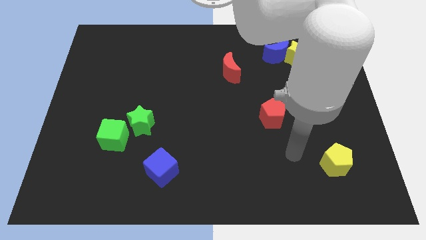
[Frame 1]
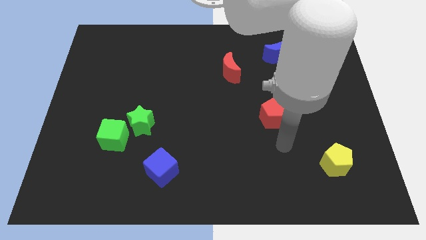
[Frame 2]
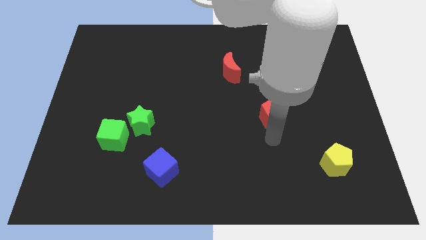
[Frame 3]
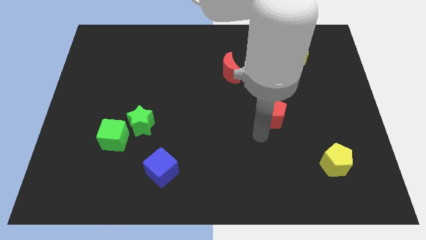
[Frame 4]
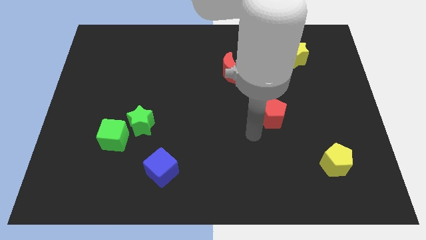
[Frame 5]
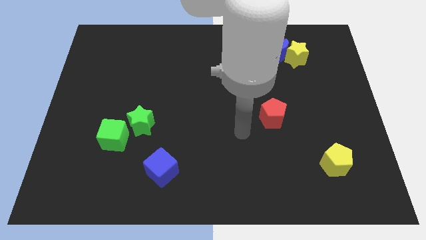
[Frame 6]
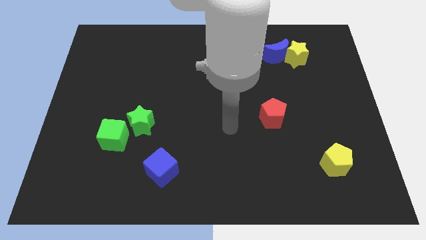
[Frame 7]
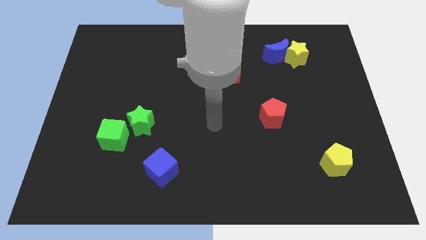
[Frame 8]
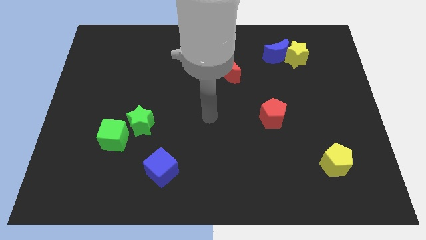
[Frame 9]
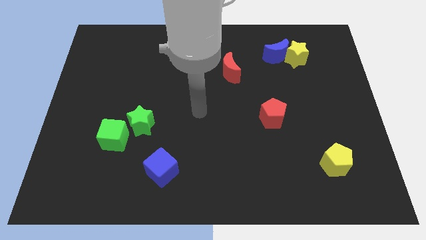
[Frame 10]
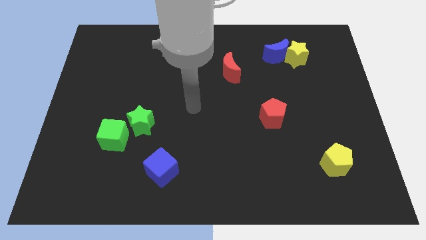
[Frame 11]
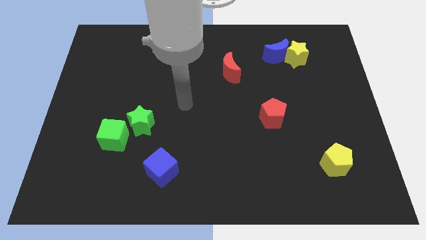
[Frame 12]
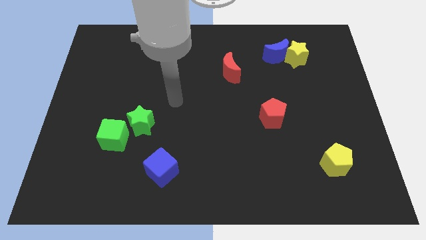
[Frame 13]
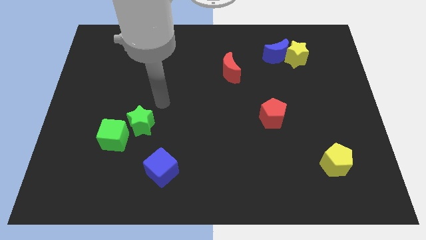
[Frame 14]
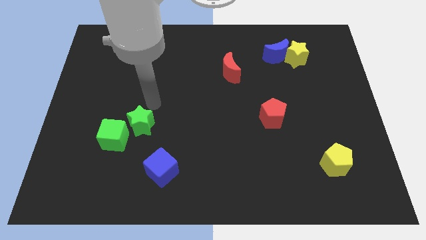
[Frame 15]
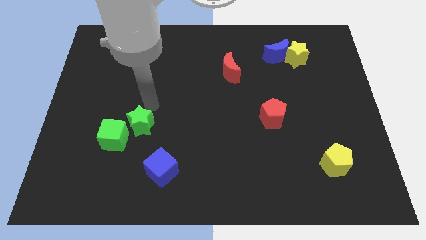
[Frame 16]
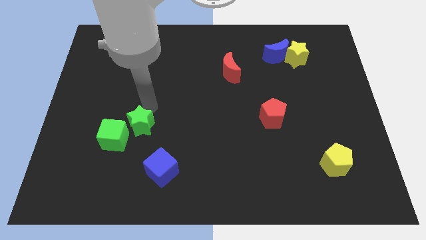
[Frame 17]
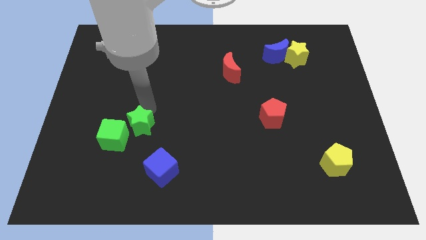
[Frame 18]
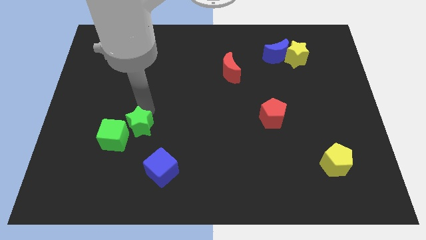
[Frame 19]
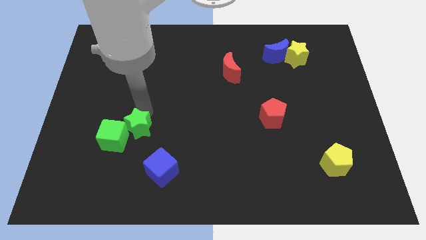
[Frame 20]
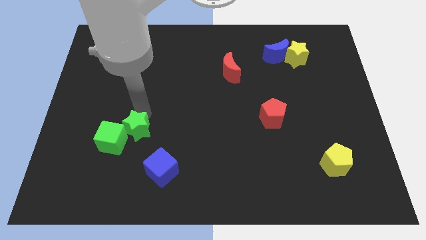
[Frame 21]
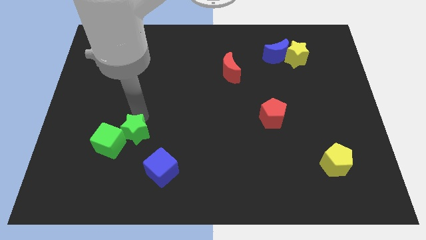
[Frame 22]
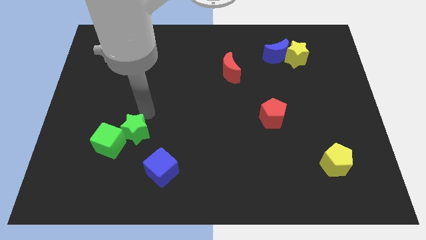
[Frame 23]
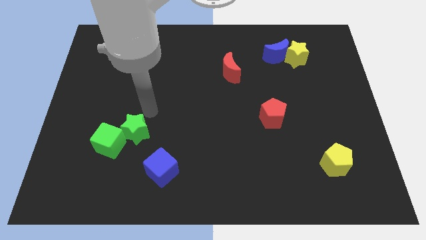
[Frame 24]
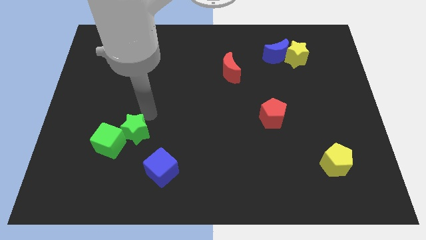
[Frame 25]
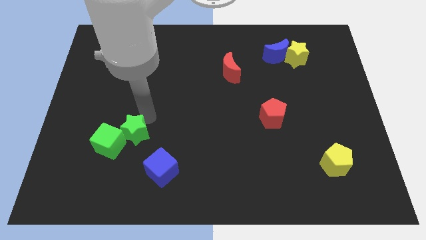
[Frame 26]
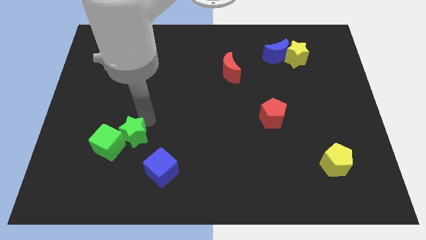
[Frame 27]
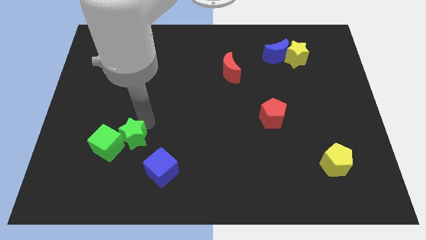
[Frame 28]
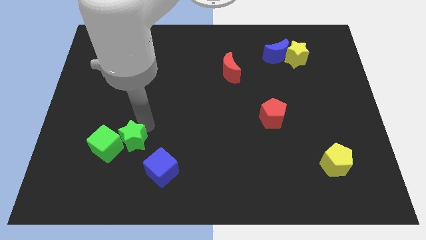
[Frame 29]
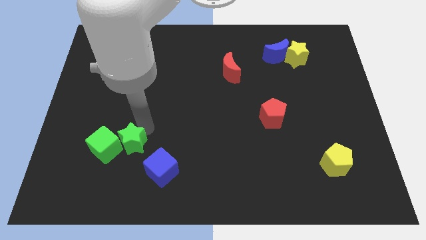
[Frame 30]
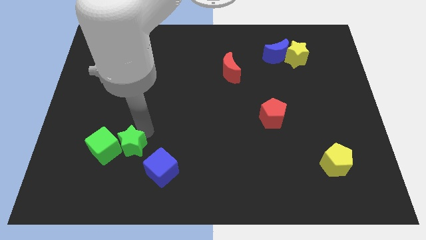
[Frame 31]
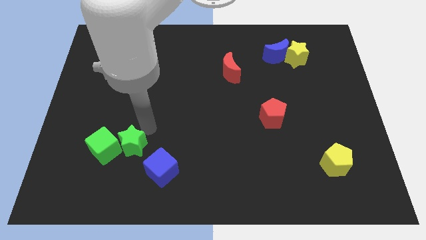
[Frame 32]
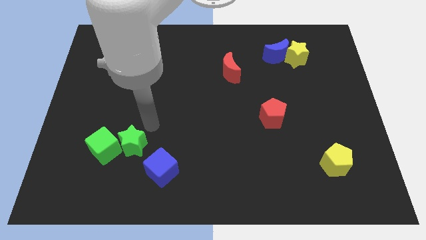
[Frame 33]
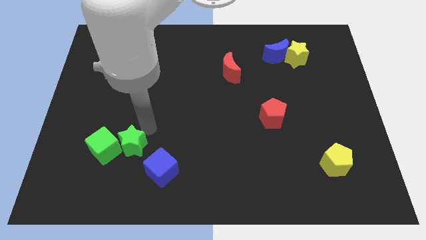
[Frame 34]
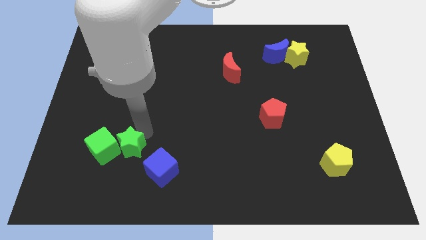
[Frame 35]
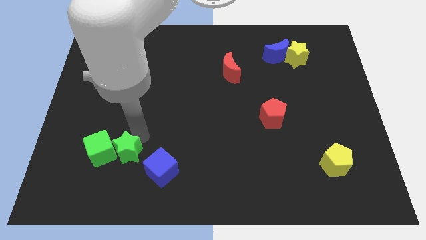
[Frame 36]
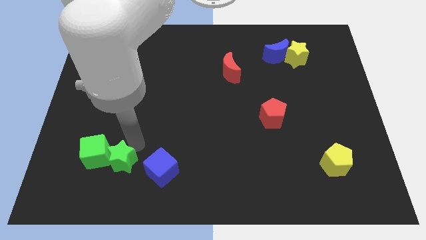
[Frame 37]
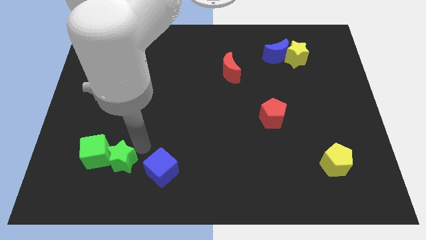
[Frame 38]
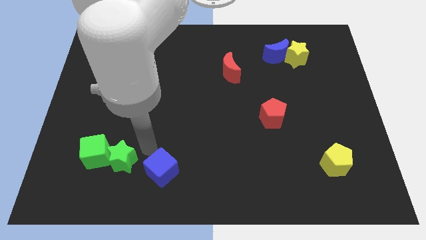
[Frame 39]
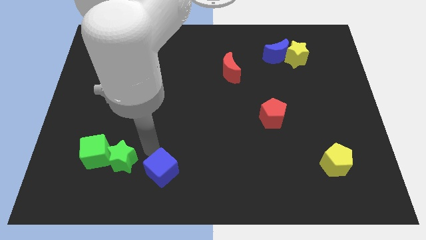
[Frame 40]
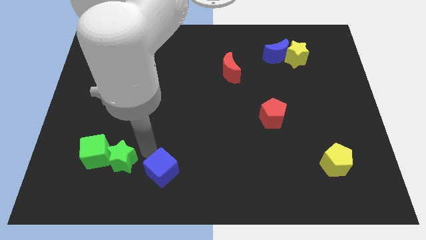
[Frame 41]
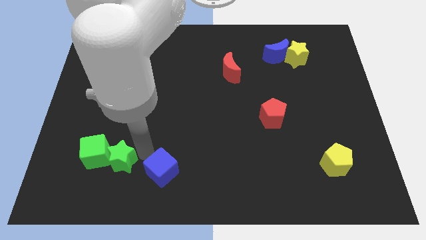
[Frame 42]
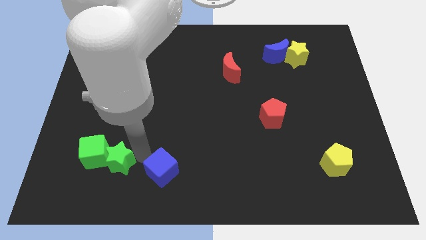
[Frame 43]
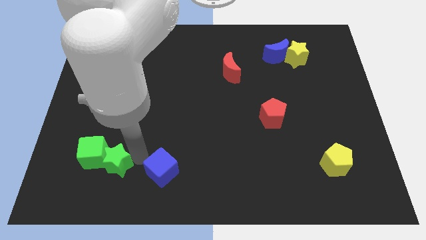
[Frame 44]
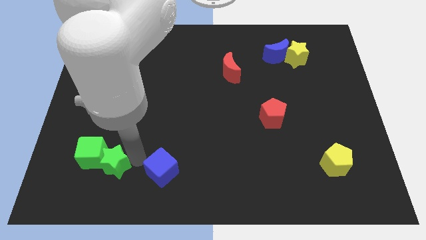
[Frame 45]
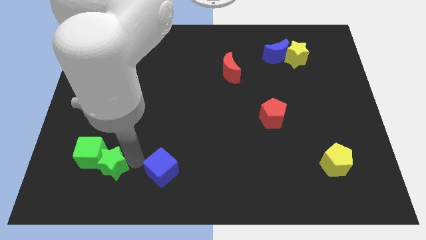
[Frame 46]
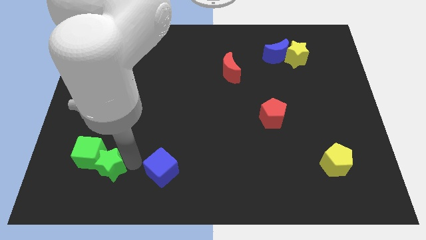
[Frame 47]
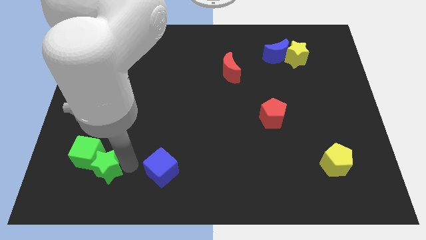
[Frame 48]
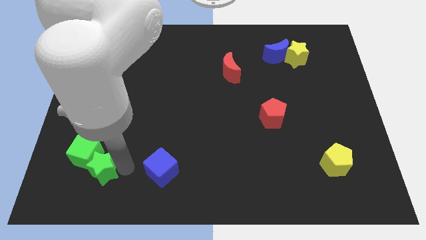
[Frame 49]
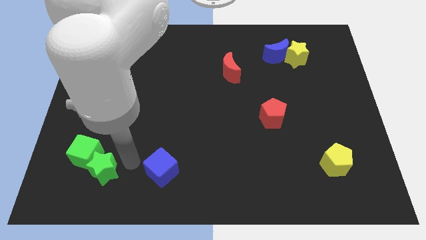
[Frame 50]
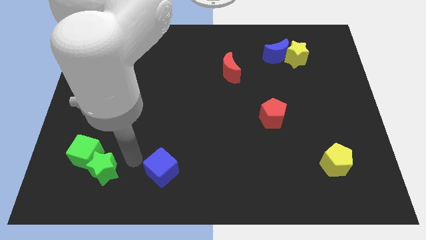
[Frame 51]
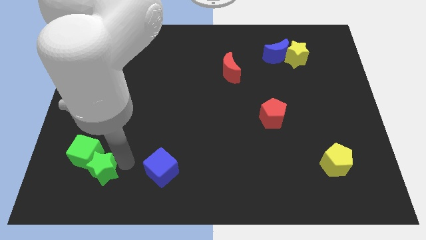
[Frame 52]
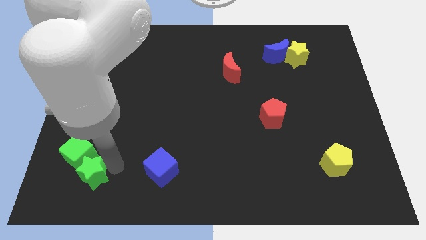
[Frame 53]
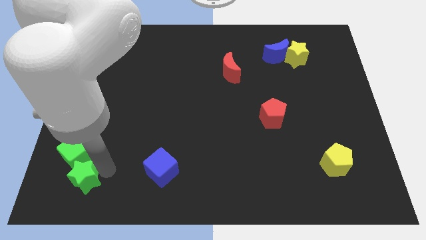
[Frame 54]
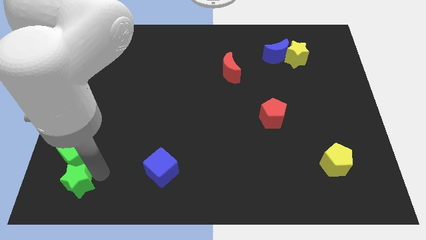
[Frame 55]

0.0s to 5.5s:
move the green star to the lower left corner

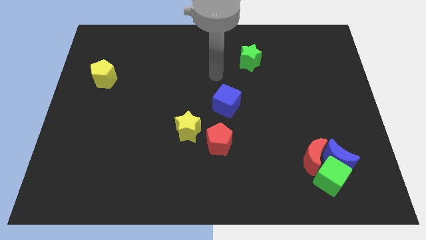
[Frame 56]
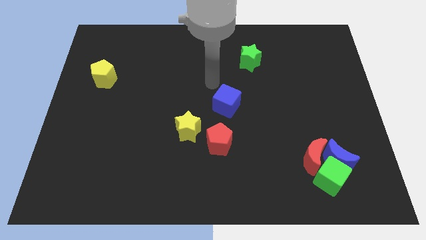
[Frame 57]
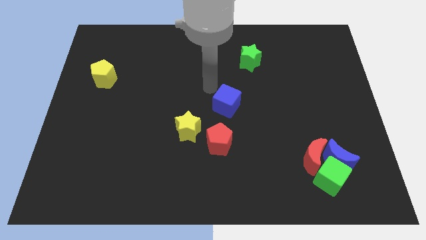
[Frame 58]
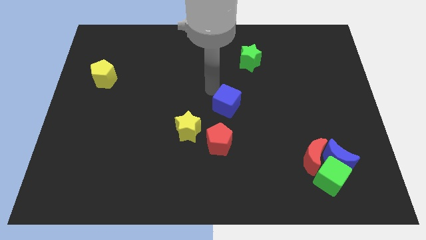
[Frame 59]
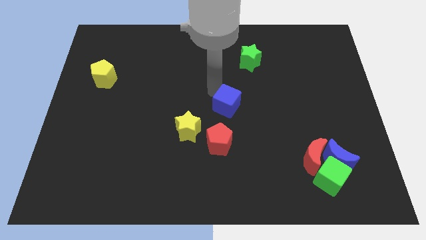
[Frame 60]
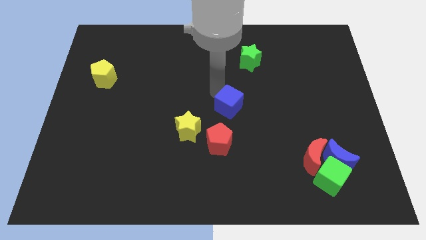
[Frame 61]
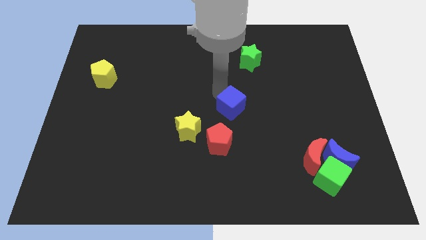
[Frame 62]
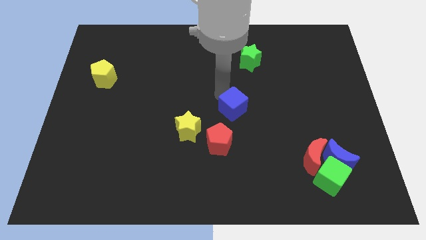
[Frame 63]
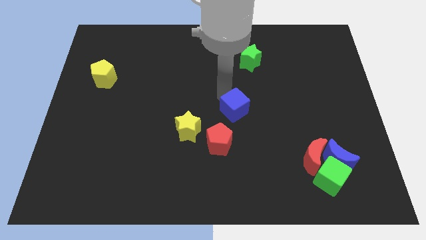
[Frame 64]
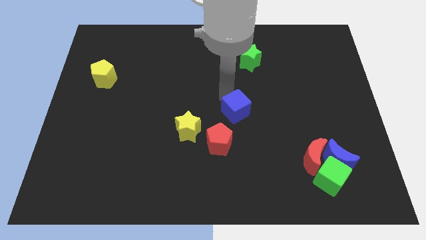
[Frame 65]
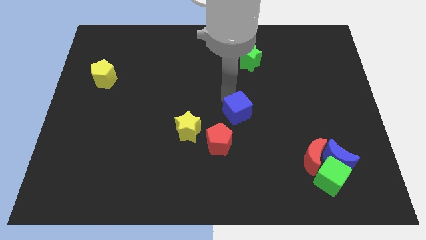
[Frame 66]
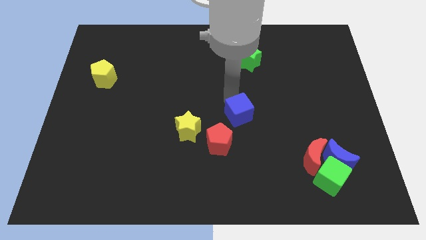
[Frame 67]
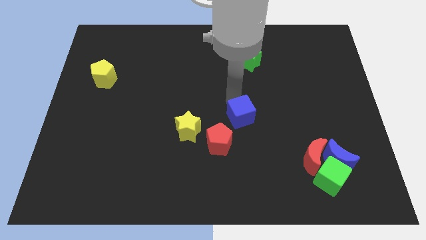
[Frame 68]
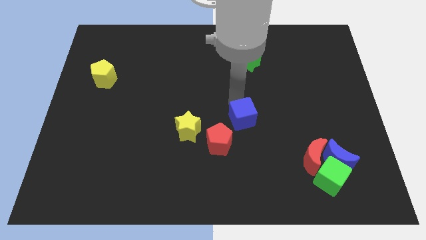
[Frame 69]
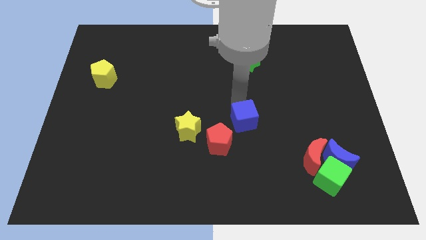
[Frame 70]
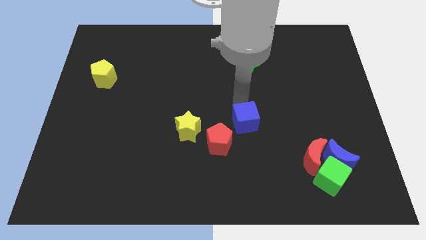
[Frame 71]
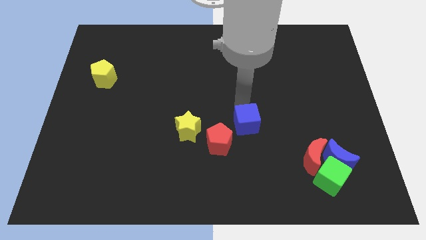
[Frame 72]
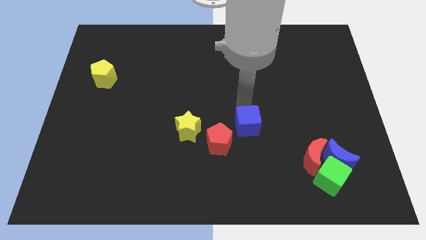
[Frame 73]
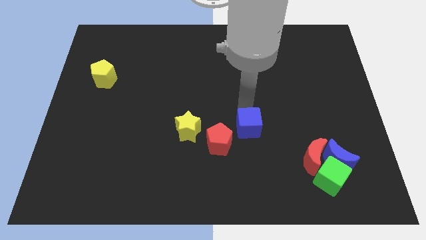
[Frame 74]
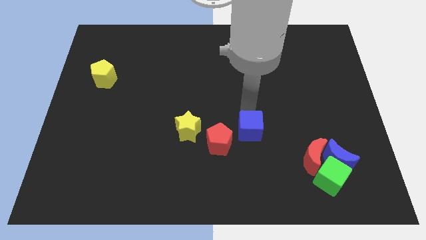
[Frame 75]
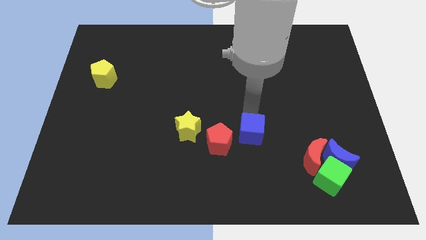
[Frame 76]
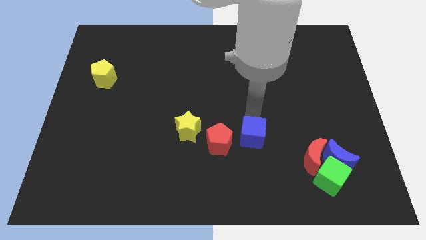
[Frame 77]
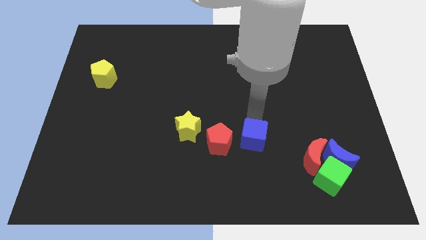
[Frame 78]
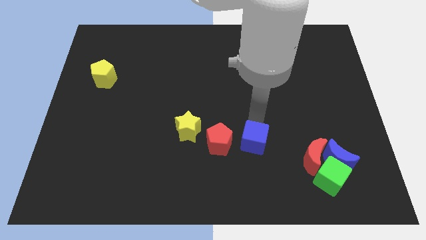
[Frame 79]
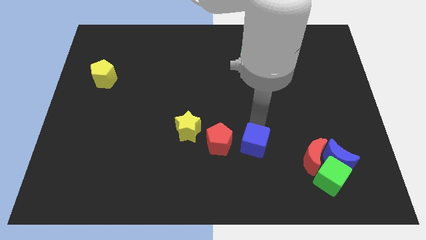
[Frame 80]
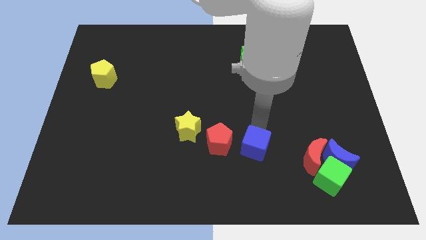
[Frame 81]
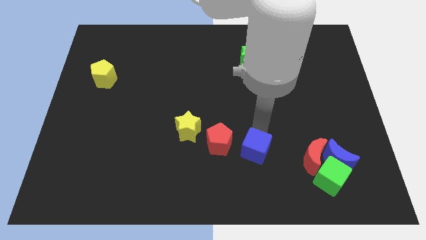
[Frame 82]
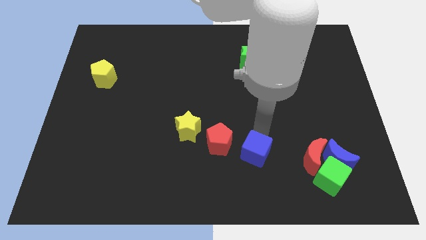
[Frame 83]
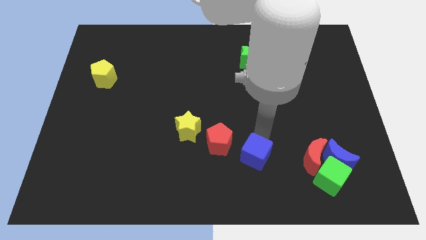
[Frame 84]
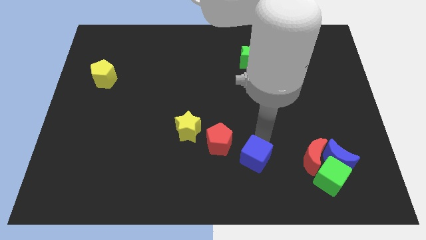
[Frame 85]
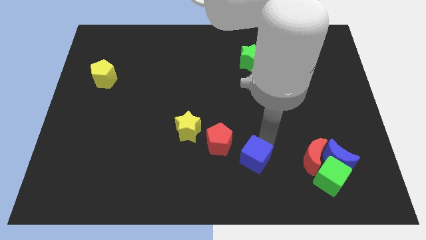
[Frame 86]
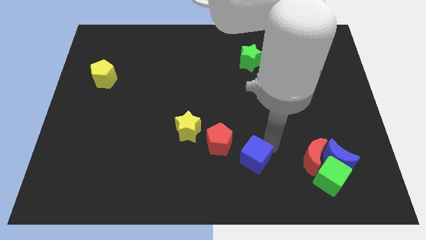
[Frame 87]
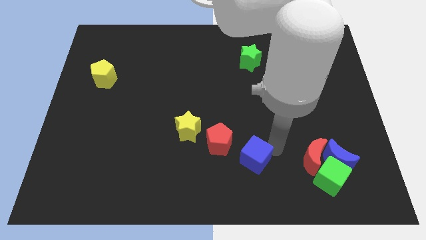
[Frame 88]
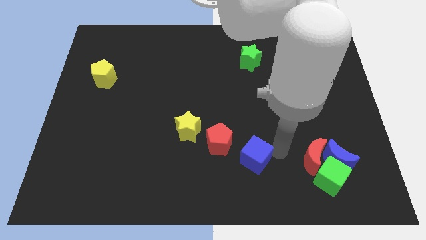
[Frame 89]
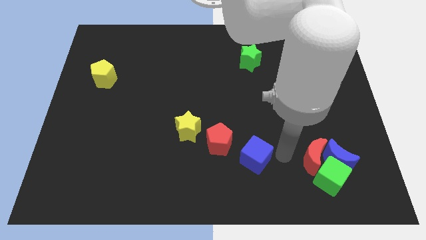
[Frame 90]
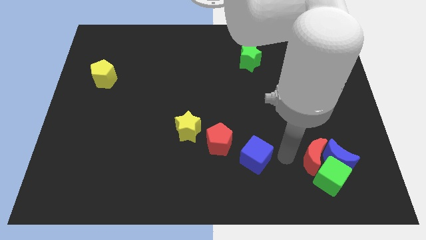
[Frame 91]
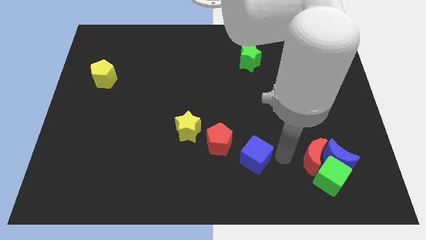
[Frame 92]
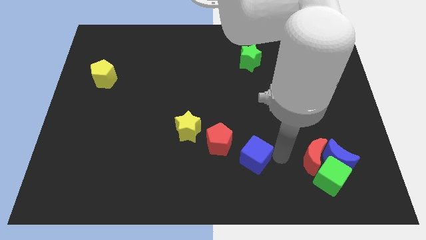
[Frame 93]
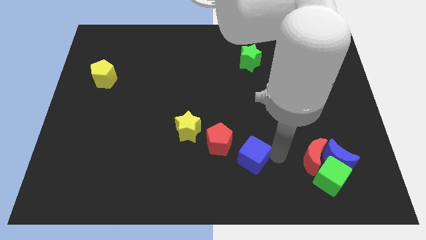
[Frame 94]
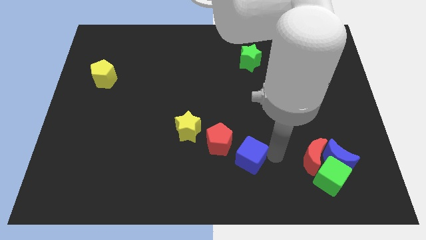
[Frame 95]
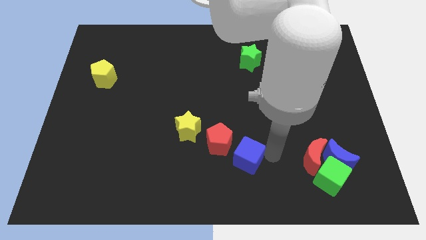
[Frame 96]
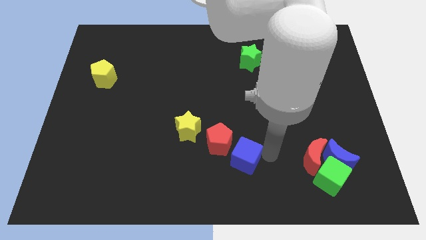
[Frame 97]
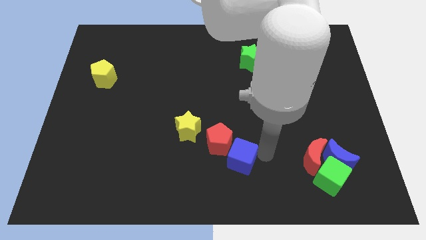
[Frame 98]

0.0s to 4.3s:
slide the blue cube to the bottom side
